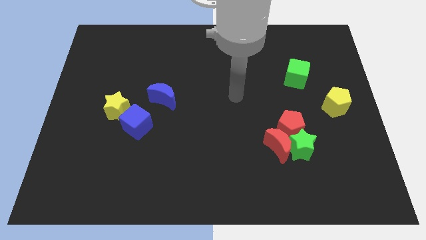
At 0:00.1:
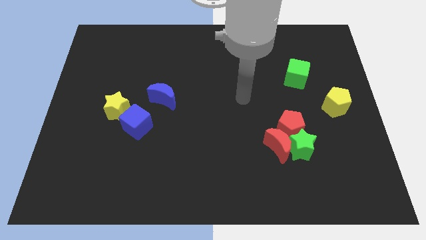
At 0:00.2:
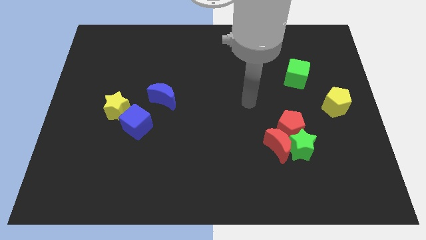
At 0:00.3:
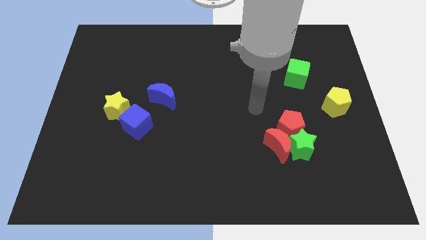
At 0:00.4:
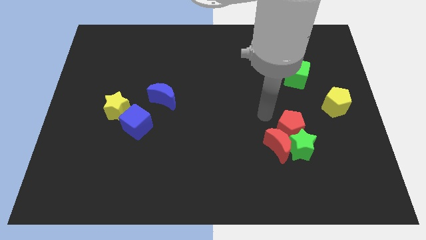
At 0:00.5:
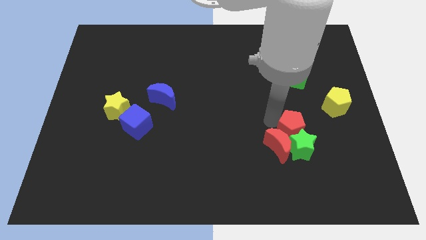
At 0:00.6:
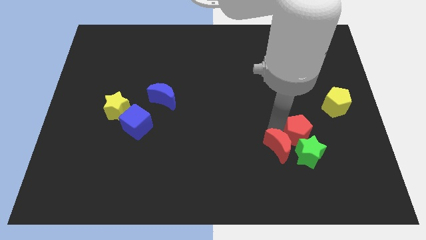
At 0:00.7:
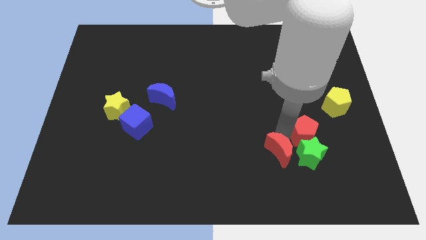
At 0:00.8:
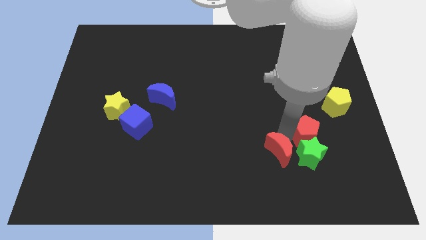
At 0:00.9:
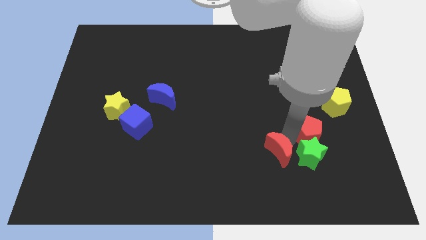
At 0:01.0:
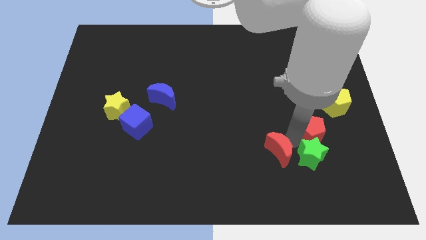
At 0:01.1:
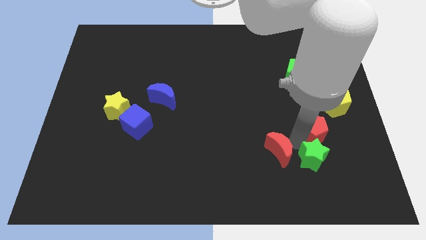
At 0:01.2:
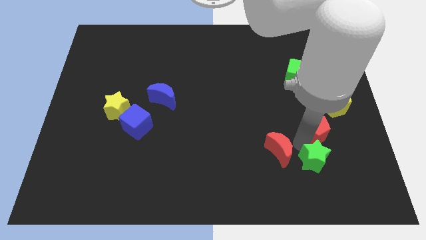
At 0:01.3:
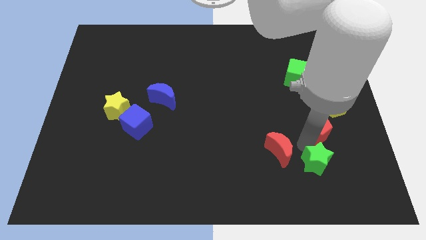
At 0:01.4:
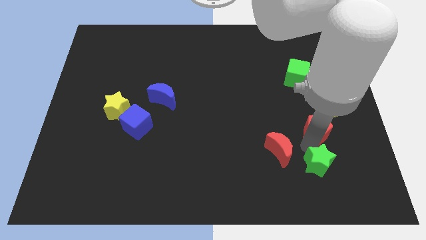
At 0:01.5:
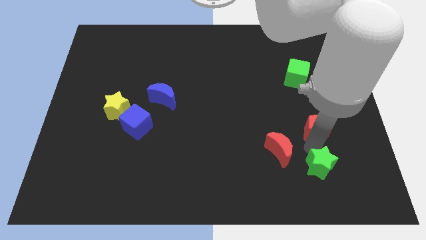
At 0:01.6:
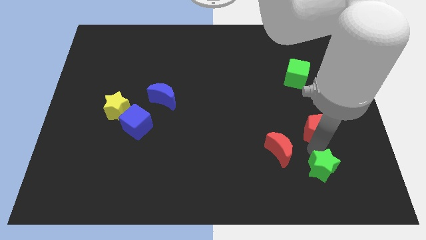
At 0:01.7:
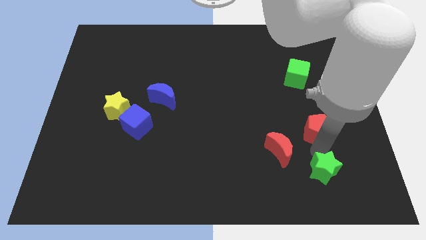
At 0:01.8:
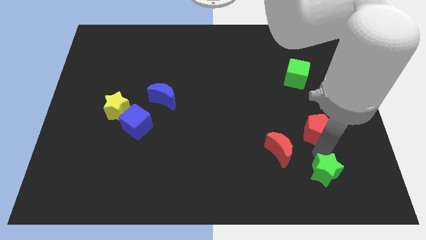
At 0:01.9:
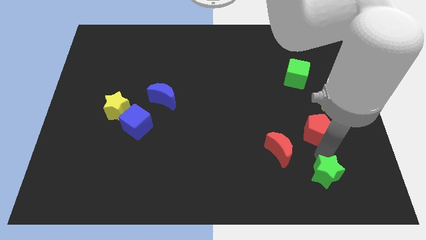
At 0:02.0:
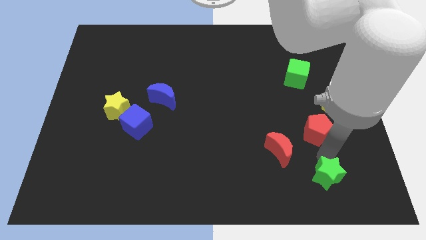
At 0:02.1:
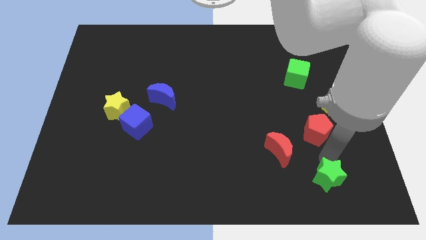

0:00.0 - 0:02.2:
separate the green star from the red moon and red pentagon

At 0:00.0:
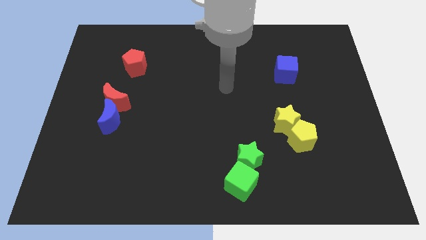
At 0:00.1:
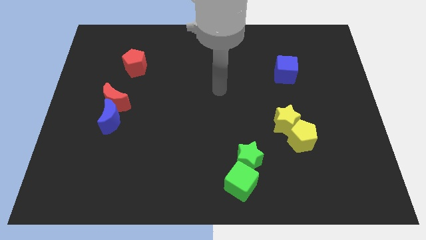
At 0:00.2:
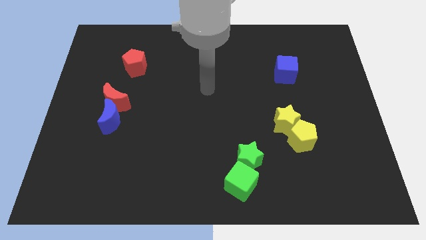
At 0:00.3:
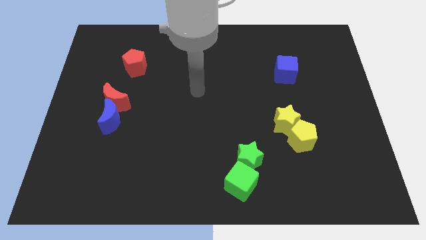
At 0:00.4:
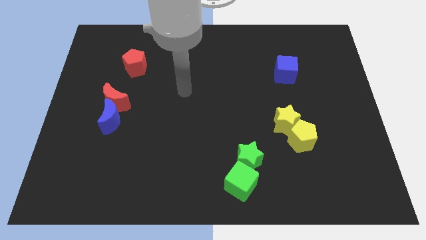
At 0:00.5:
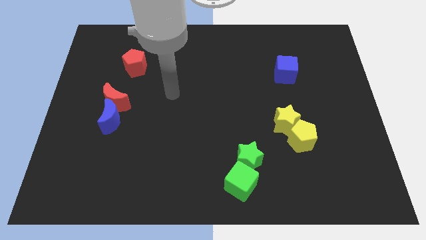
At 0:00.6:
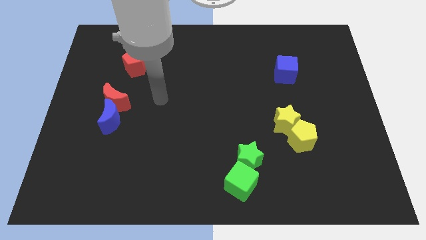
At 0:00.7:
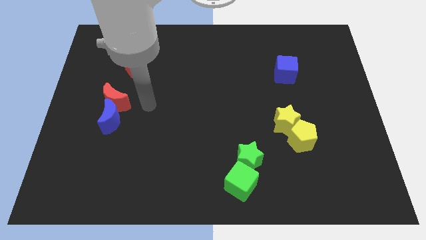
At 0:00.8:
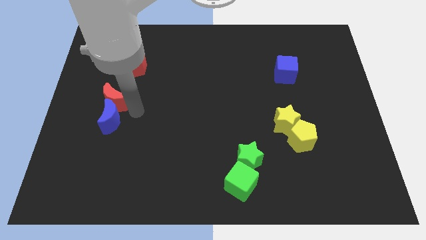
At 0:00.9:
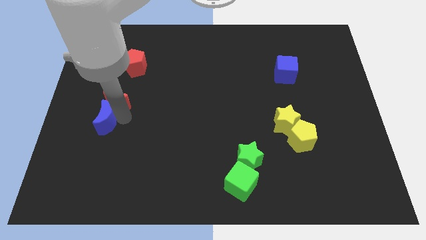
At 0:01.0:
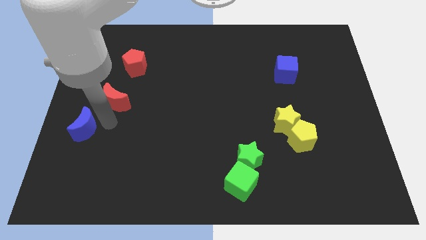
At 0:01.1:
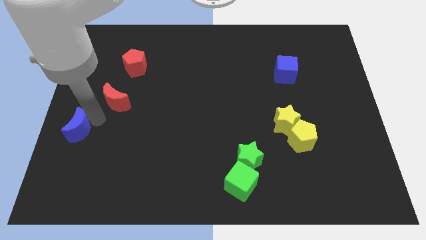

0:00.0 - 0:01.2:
pull the red moon apart from the blue moon

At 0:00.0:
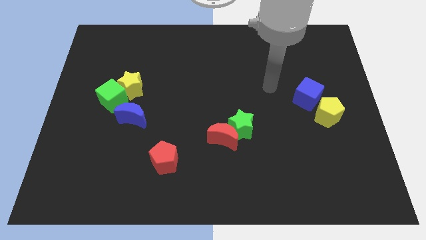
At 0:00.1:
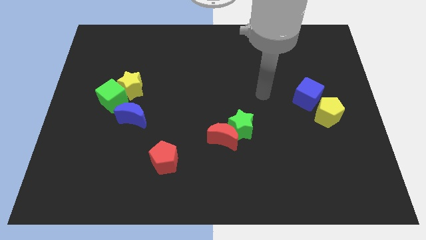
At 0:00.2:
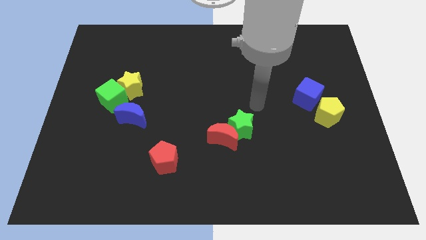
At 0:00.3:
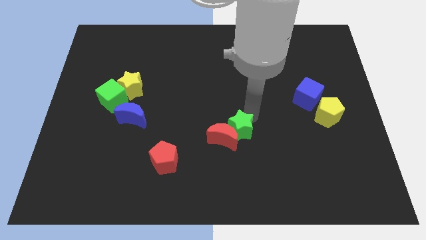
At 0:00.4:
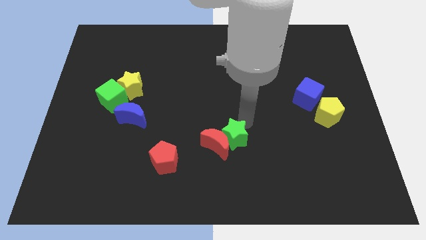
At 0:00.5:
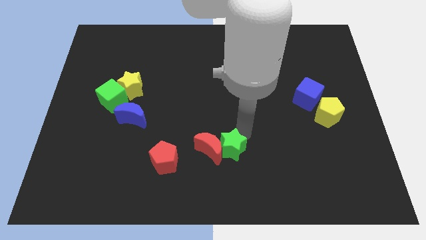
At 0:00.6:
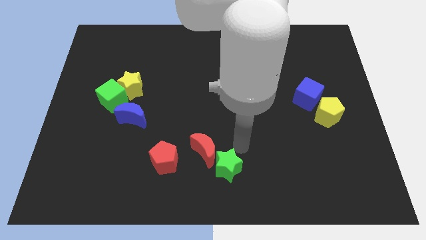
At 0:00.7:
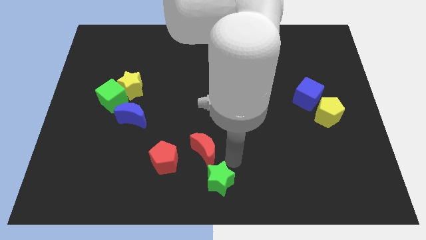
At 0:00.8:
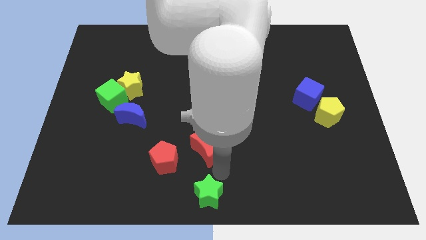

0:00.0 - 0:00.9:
pull the red moon apart from the green star

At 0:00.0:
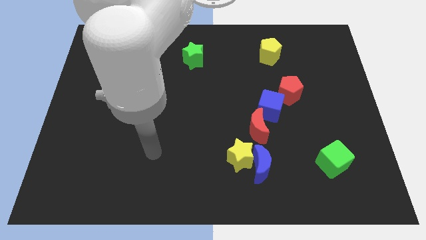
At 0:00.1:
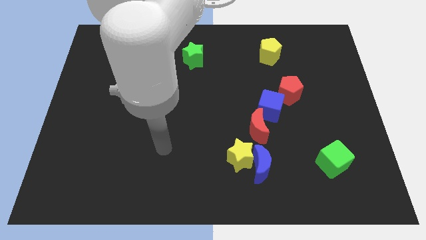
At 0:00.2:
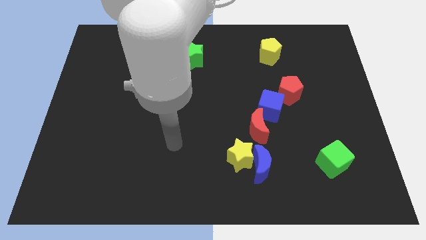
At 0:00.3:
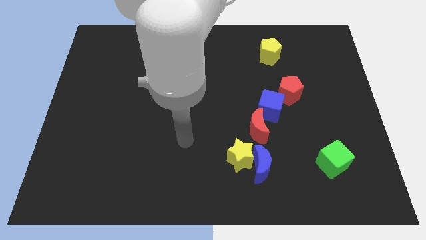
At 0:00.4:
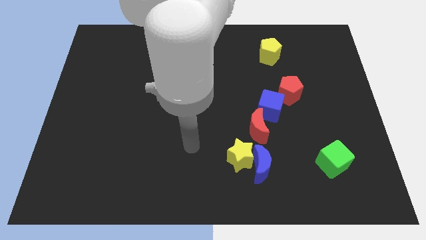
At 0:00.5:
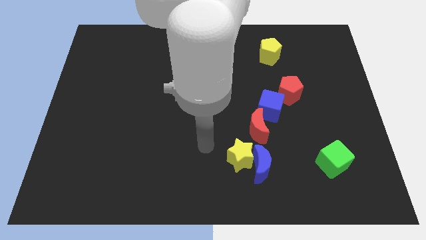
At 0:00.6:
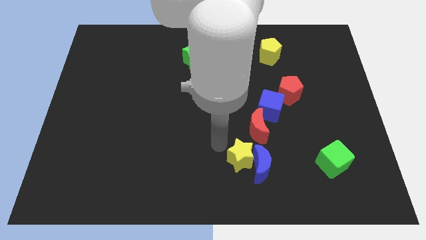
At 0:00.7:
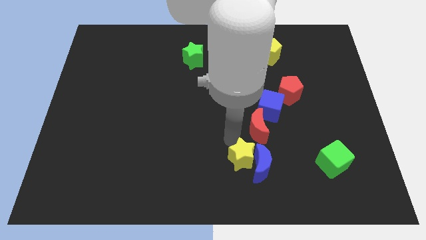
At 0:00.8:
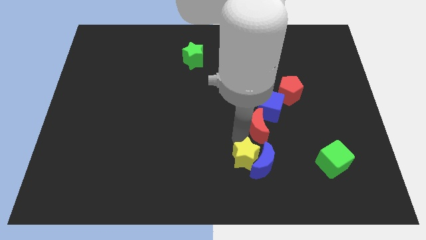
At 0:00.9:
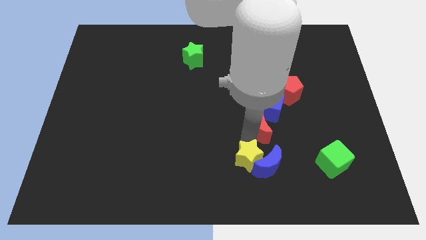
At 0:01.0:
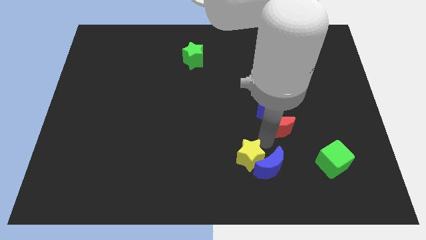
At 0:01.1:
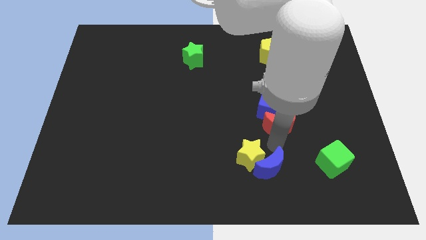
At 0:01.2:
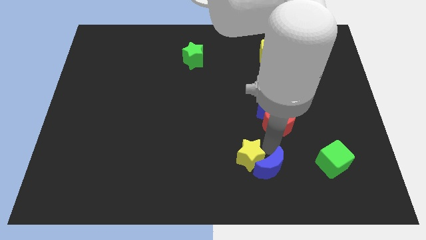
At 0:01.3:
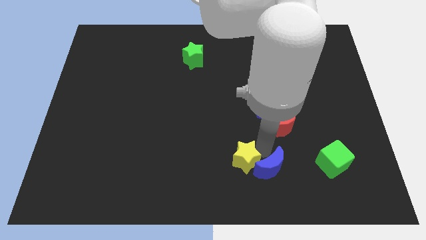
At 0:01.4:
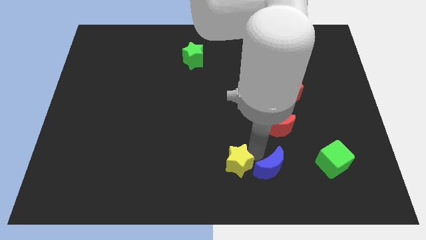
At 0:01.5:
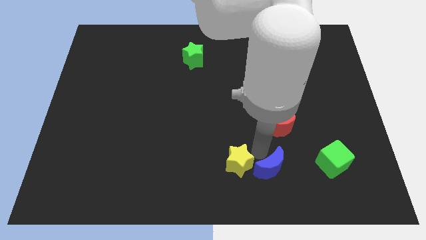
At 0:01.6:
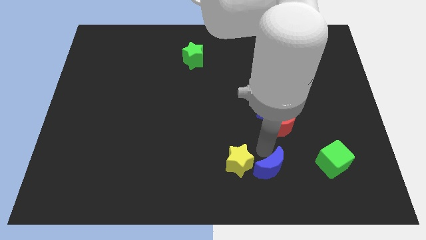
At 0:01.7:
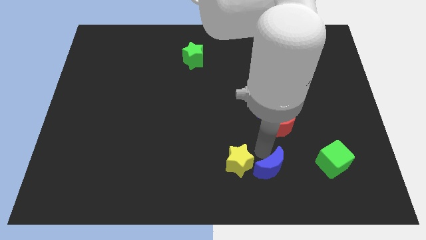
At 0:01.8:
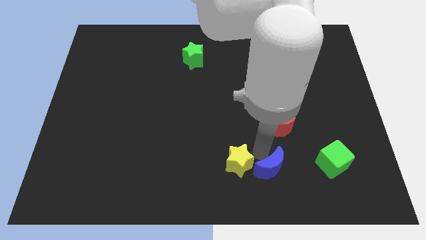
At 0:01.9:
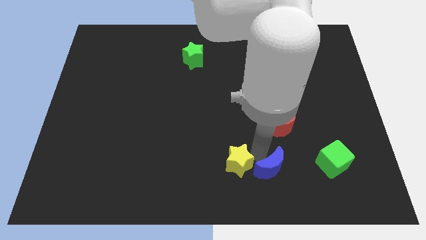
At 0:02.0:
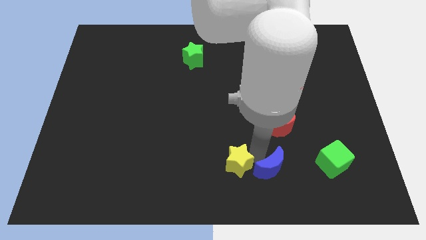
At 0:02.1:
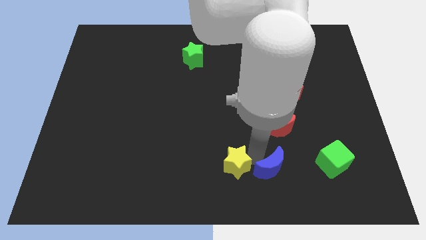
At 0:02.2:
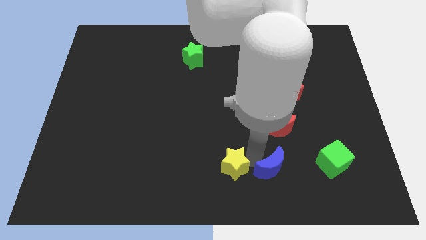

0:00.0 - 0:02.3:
pull the yellow star apart from the blue moon and red moon

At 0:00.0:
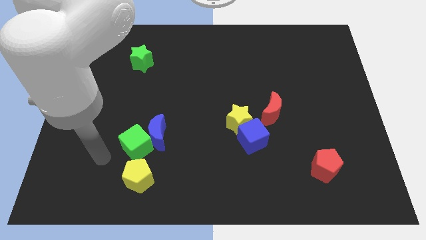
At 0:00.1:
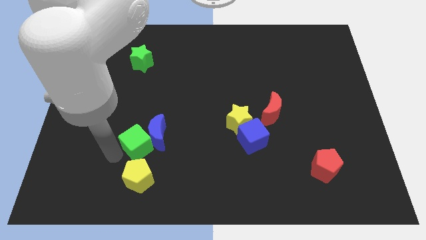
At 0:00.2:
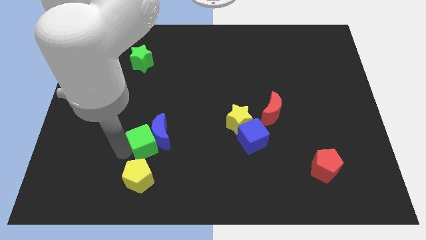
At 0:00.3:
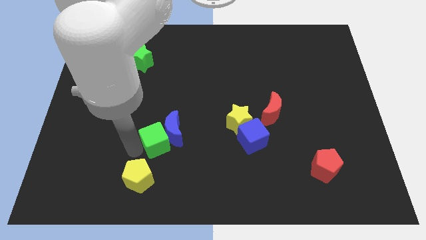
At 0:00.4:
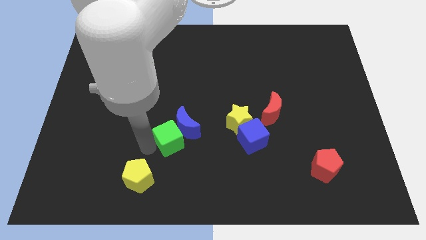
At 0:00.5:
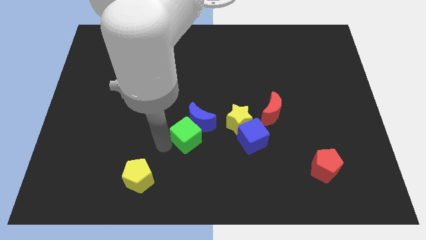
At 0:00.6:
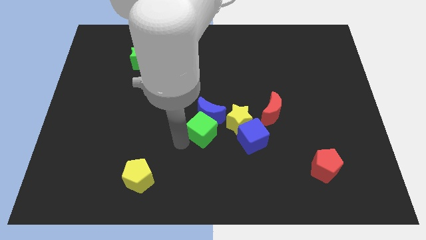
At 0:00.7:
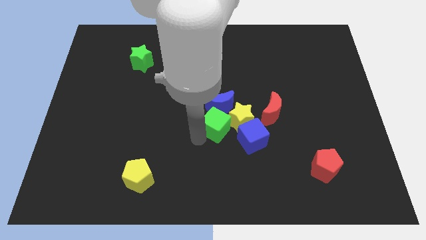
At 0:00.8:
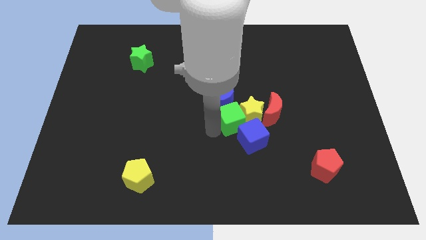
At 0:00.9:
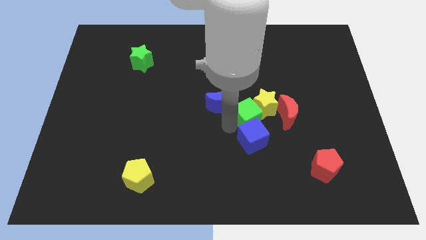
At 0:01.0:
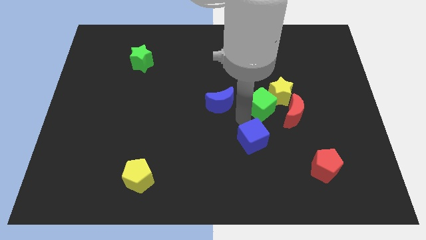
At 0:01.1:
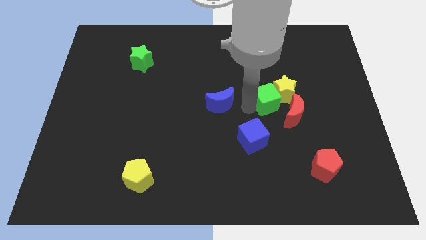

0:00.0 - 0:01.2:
separate the blue moon from the green cube

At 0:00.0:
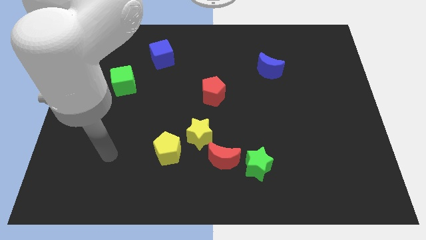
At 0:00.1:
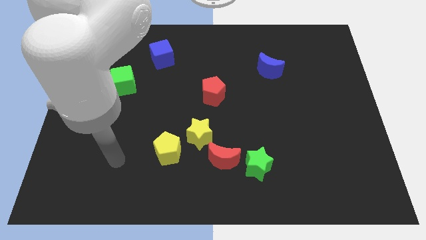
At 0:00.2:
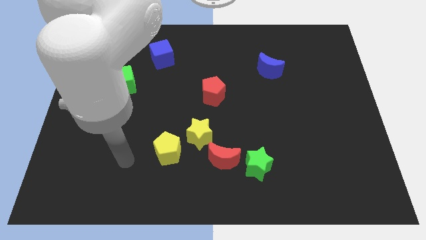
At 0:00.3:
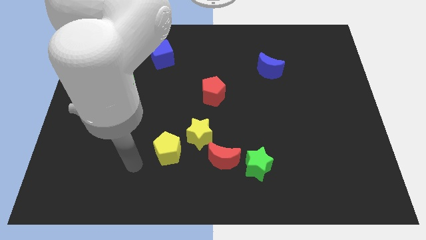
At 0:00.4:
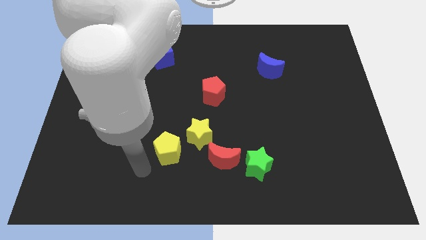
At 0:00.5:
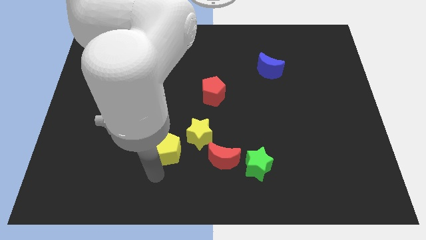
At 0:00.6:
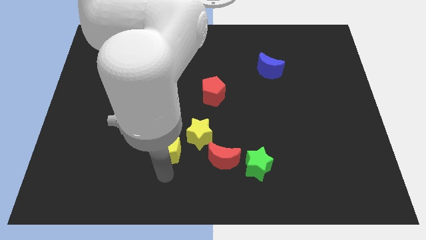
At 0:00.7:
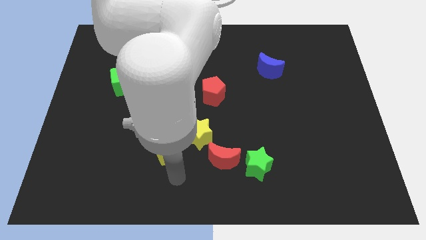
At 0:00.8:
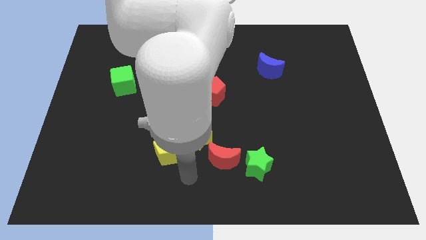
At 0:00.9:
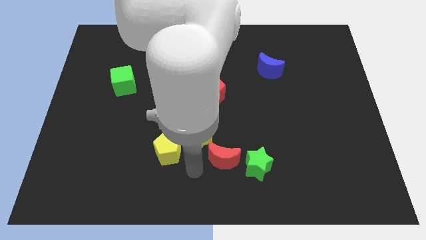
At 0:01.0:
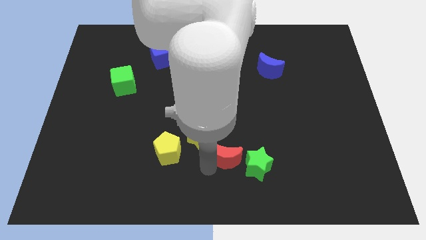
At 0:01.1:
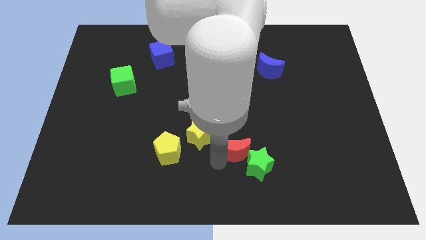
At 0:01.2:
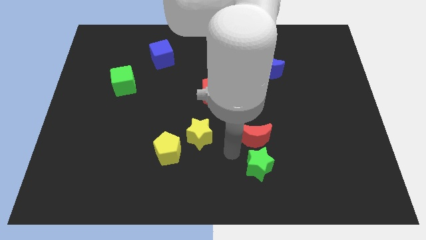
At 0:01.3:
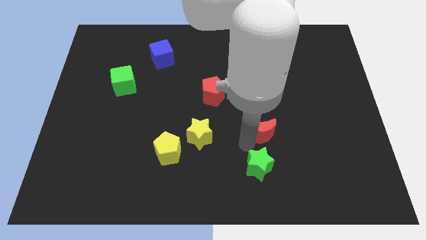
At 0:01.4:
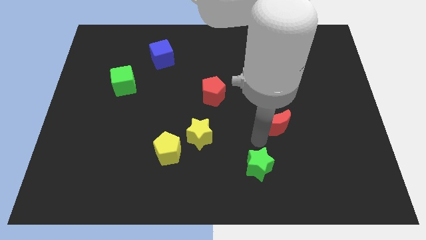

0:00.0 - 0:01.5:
pull the green star apart from the red moon

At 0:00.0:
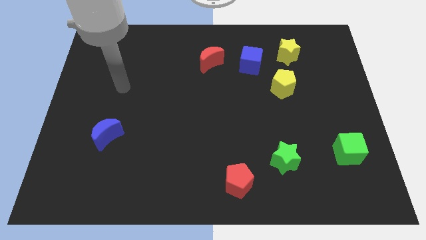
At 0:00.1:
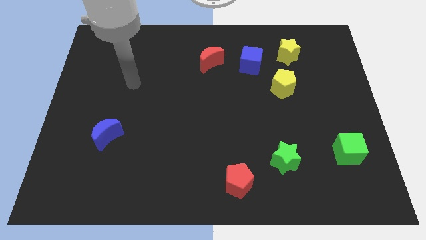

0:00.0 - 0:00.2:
pull the blue cube apart from the yellow star
